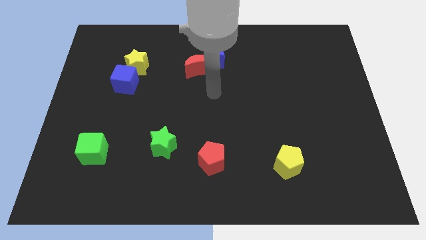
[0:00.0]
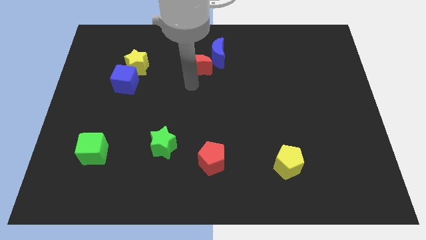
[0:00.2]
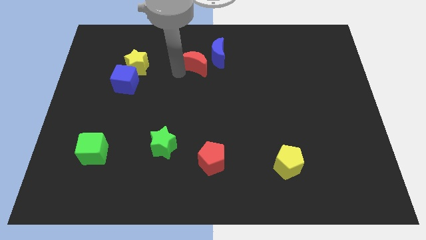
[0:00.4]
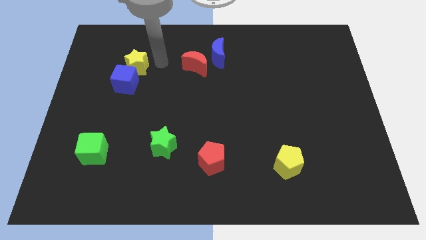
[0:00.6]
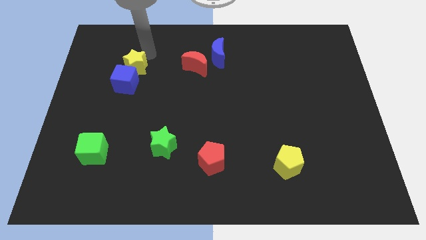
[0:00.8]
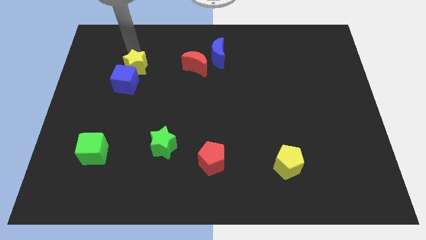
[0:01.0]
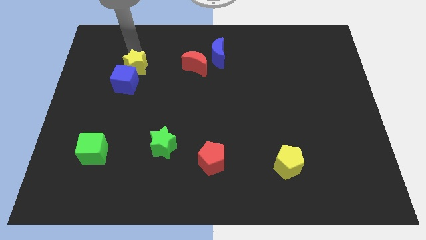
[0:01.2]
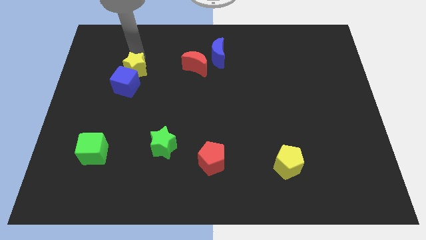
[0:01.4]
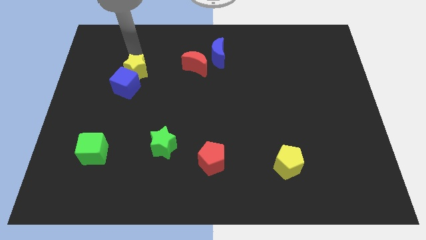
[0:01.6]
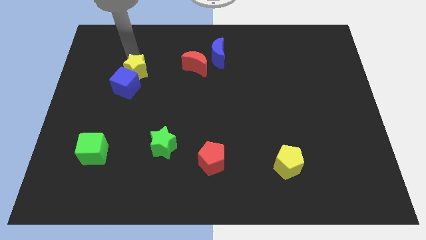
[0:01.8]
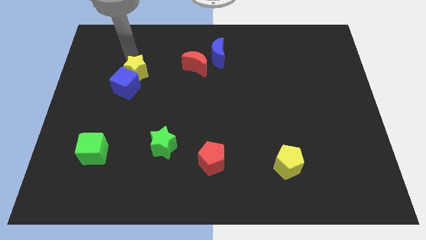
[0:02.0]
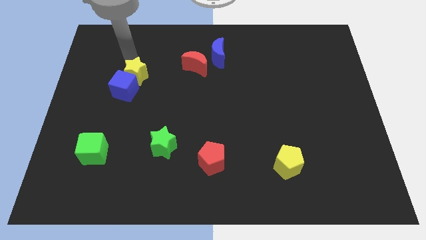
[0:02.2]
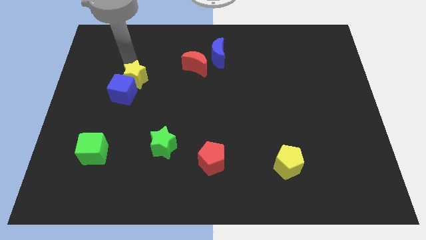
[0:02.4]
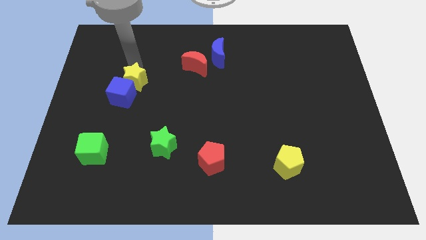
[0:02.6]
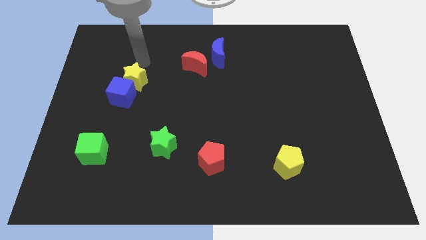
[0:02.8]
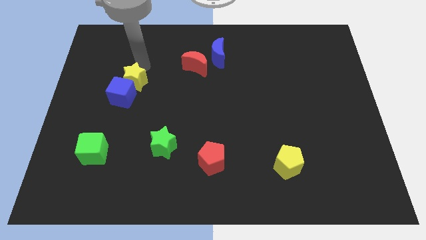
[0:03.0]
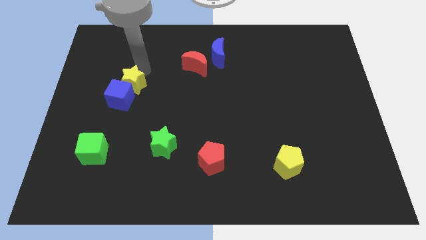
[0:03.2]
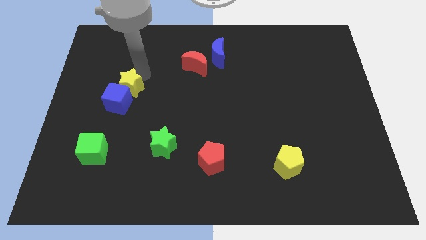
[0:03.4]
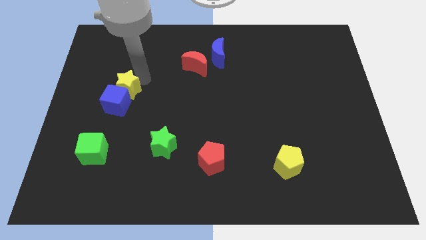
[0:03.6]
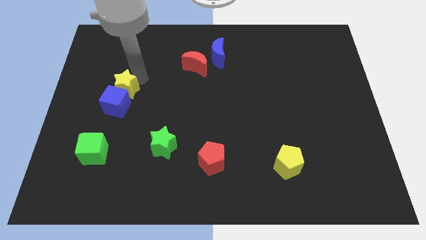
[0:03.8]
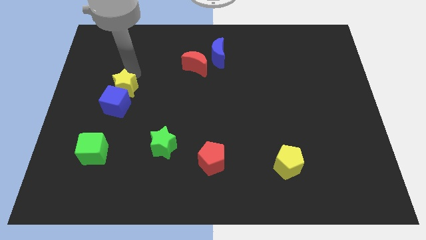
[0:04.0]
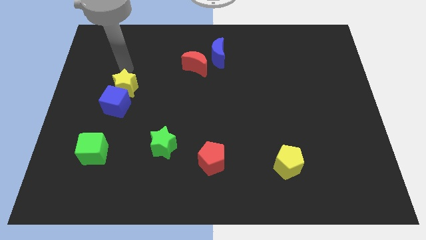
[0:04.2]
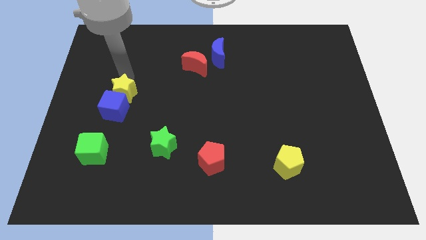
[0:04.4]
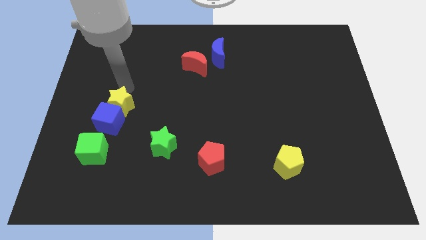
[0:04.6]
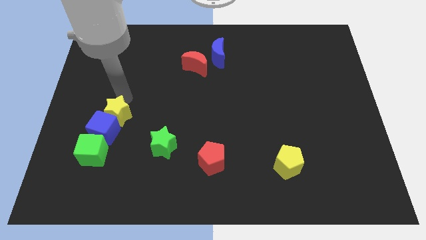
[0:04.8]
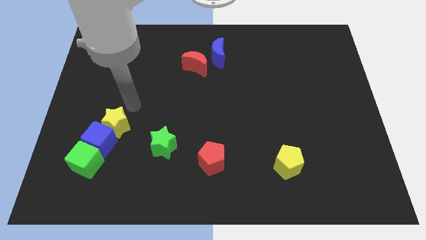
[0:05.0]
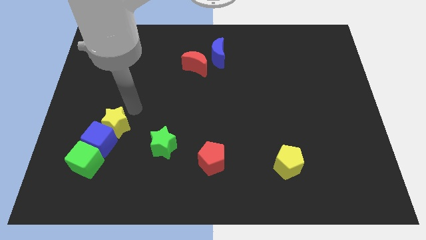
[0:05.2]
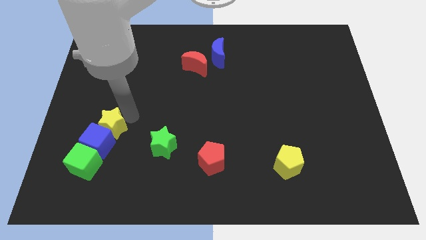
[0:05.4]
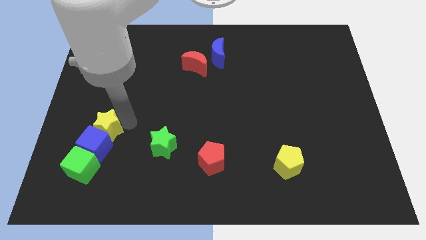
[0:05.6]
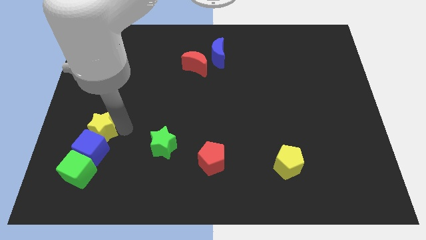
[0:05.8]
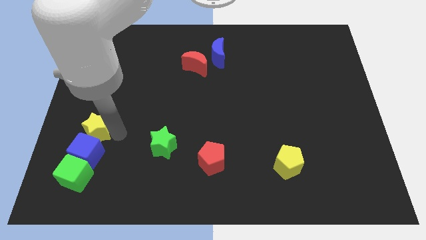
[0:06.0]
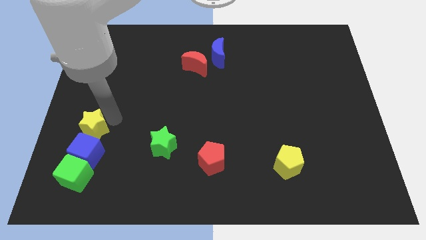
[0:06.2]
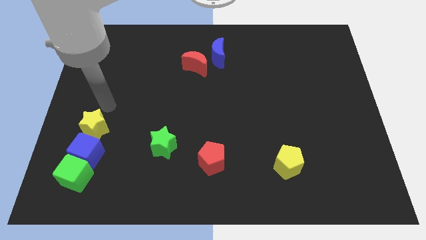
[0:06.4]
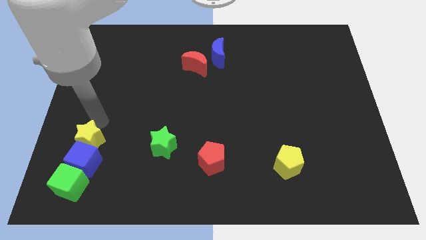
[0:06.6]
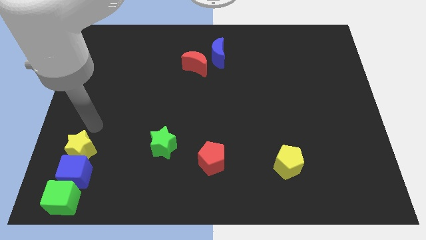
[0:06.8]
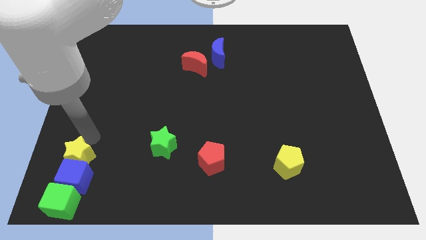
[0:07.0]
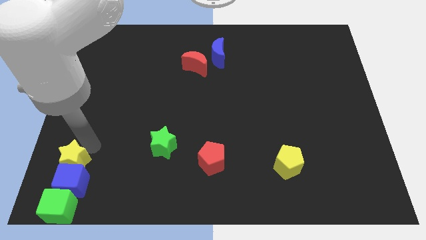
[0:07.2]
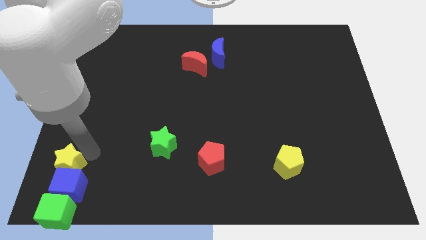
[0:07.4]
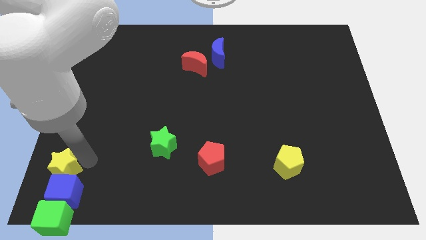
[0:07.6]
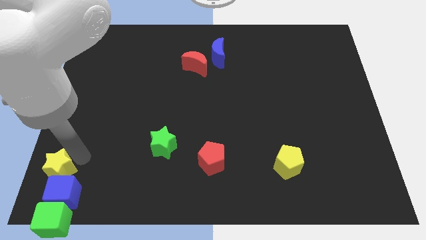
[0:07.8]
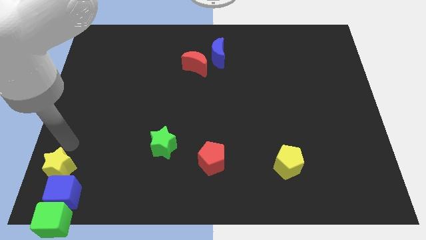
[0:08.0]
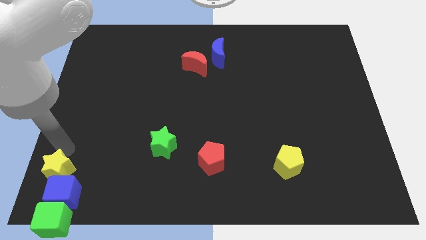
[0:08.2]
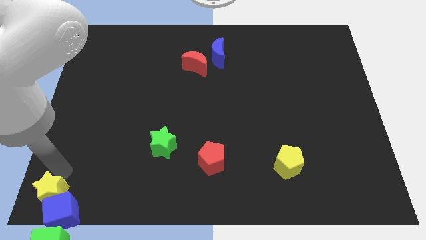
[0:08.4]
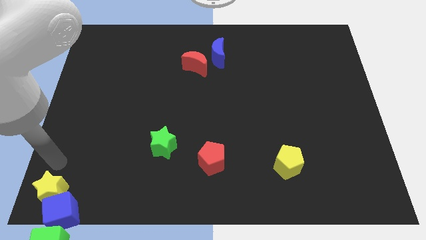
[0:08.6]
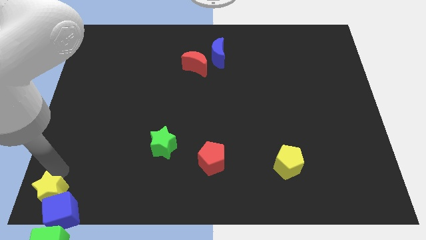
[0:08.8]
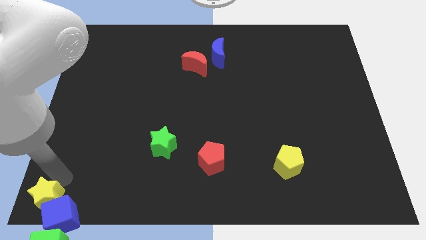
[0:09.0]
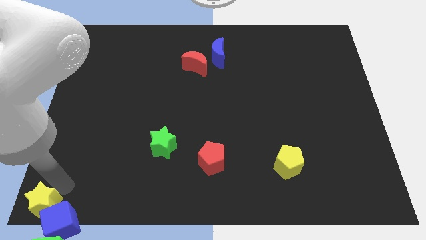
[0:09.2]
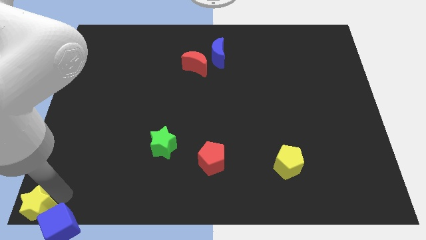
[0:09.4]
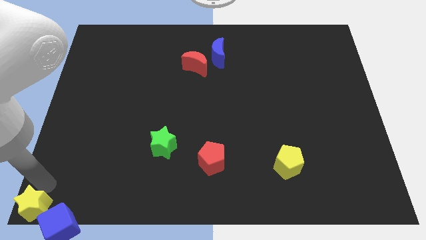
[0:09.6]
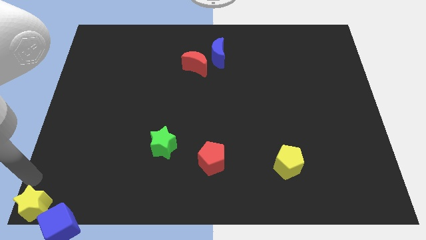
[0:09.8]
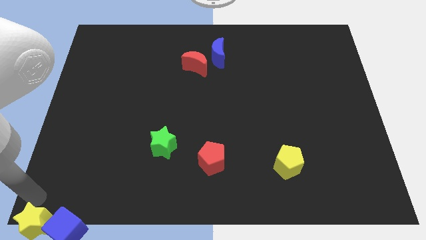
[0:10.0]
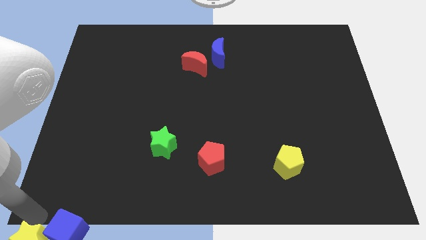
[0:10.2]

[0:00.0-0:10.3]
move the yellow star close to the green cube

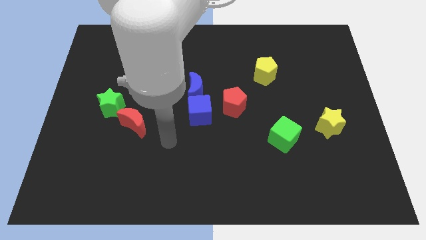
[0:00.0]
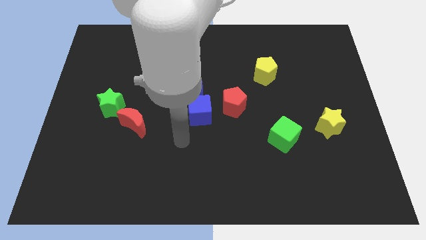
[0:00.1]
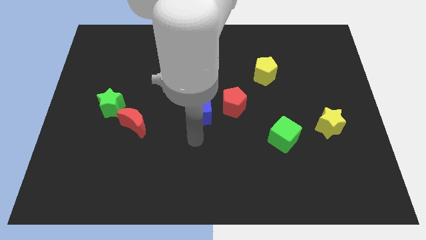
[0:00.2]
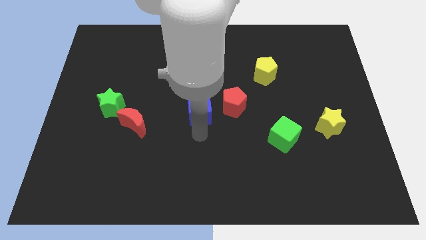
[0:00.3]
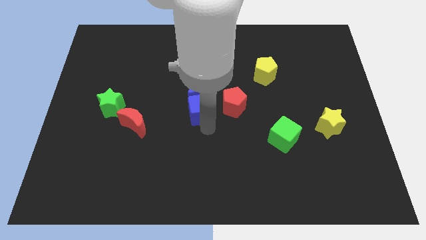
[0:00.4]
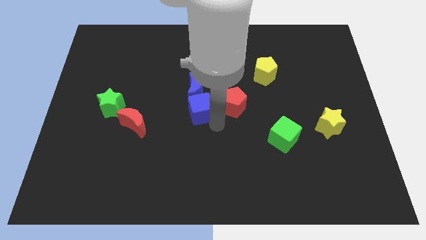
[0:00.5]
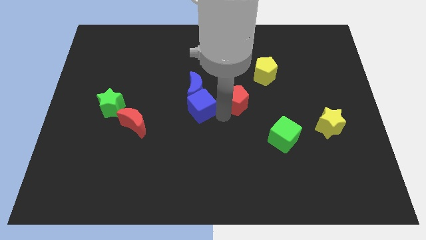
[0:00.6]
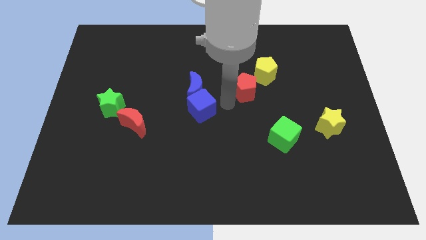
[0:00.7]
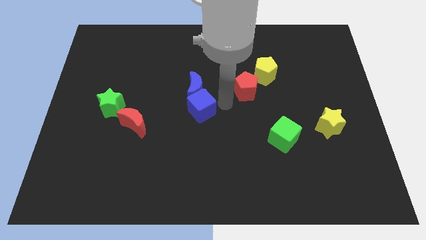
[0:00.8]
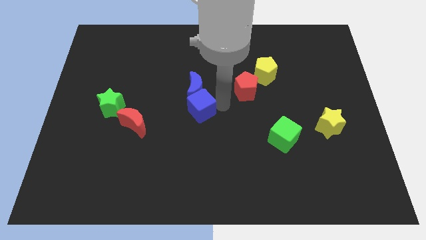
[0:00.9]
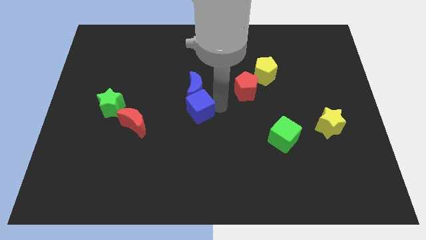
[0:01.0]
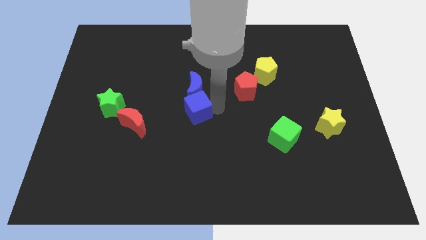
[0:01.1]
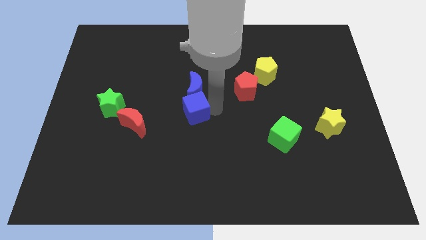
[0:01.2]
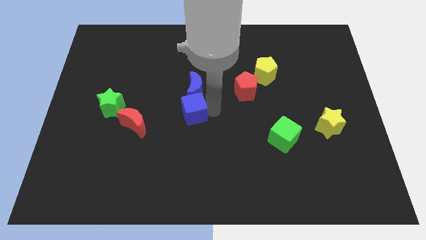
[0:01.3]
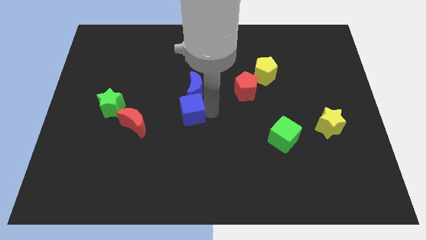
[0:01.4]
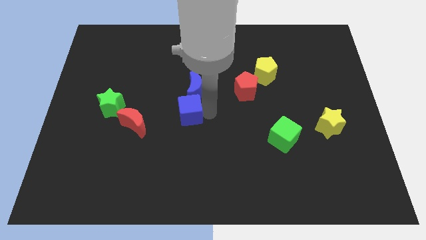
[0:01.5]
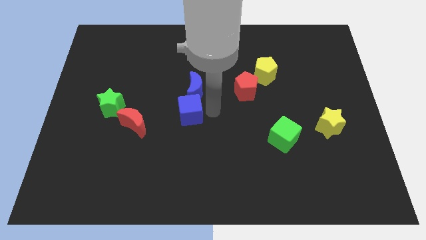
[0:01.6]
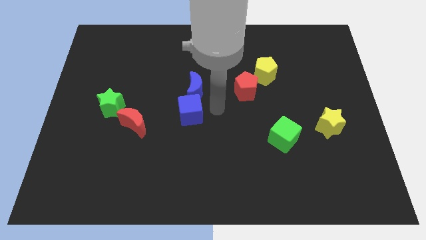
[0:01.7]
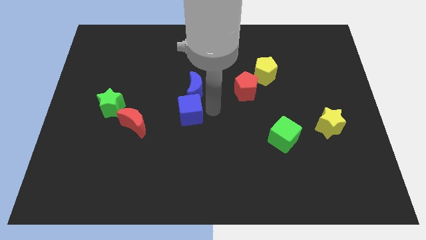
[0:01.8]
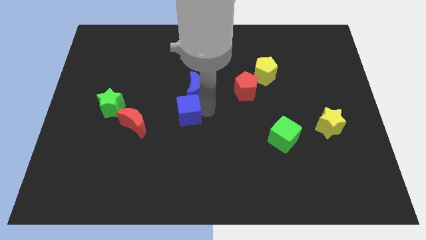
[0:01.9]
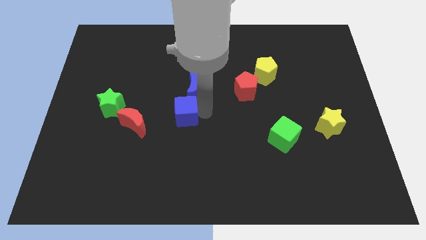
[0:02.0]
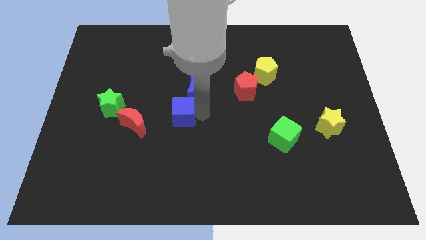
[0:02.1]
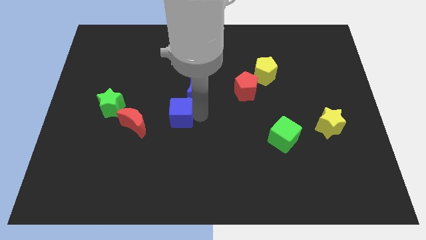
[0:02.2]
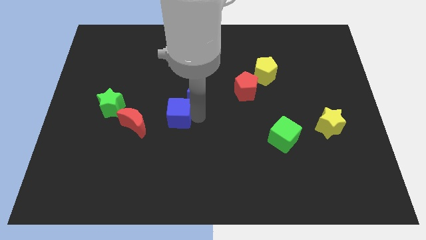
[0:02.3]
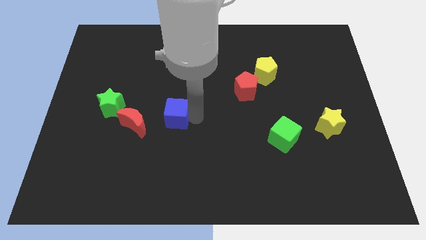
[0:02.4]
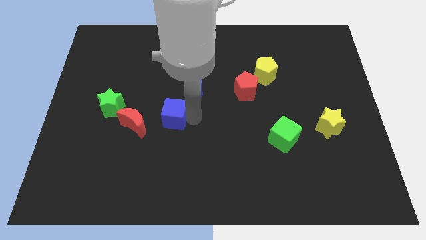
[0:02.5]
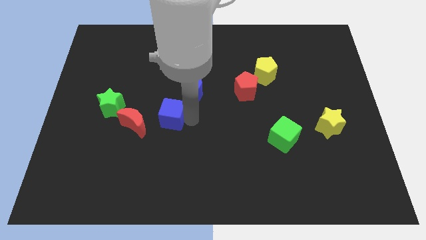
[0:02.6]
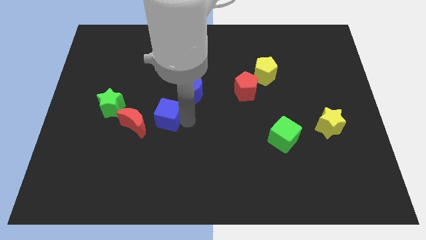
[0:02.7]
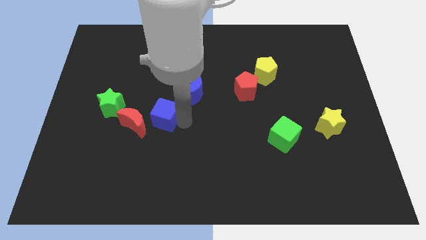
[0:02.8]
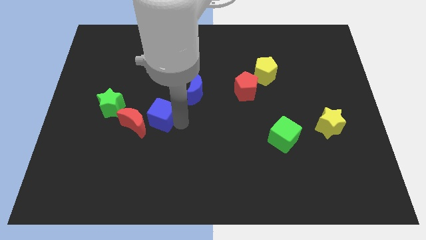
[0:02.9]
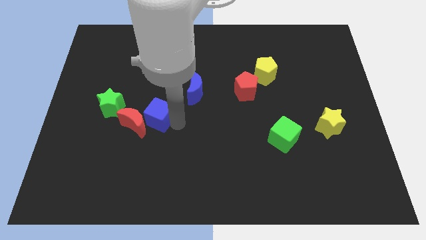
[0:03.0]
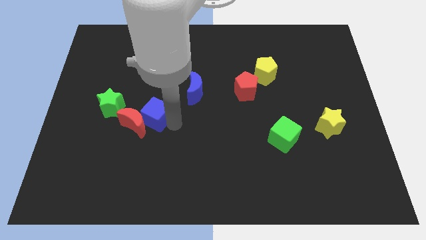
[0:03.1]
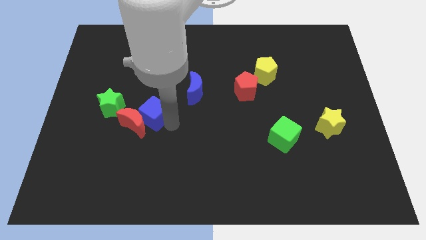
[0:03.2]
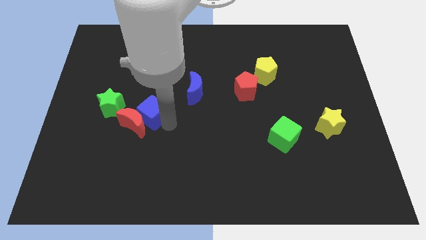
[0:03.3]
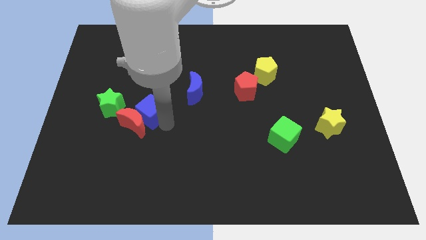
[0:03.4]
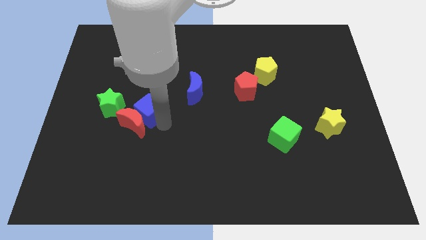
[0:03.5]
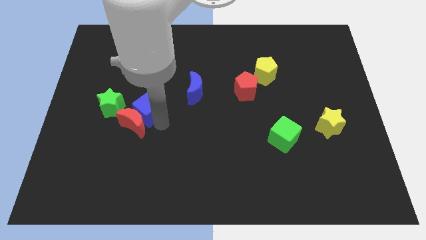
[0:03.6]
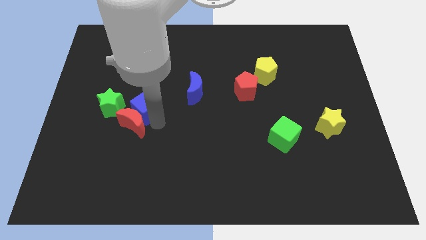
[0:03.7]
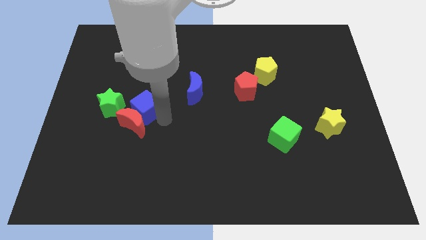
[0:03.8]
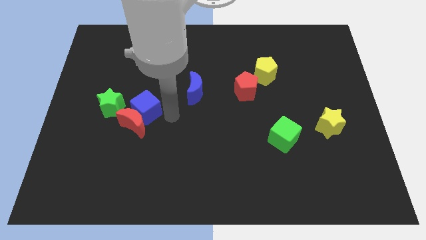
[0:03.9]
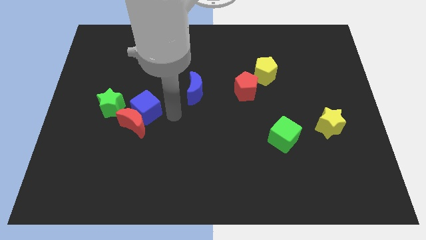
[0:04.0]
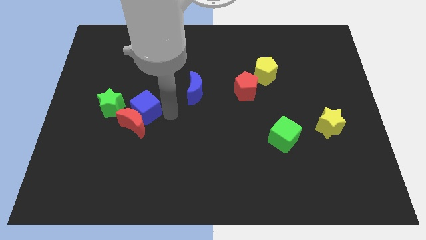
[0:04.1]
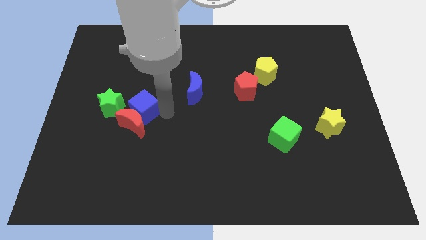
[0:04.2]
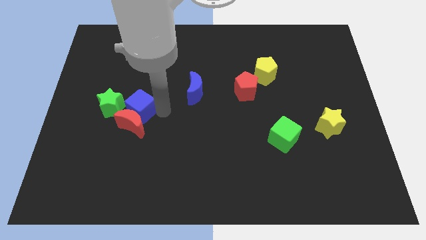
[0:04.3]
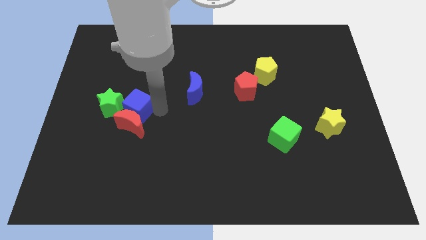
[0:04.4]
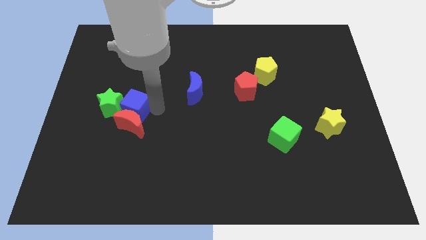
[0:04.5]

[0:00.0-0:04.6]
slide the blue cube towards the green star
